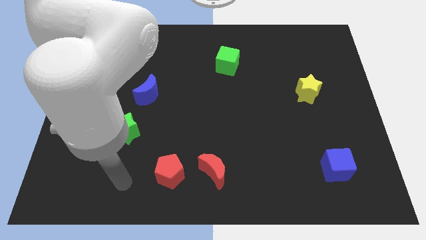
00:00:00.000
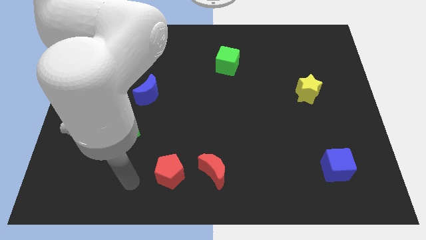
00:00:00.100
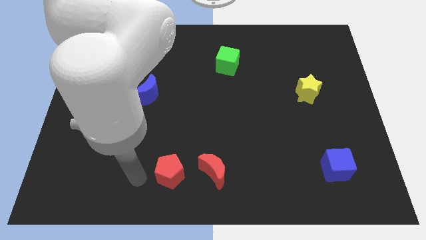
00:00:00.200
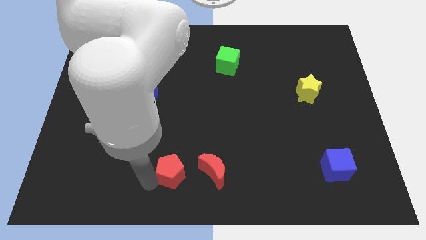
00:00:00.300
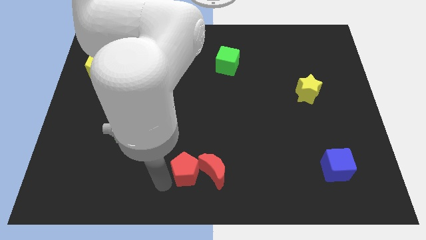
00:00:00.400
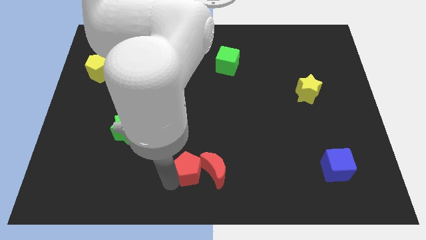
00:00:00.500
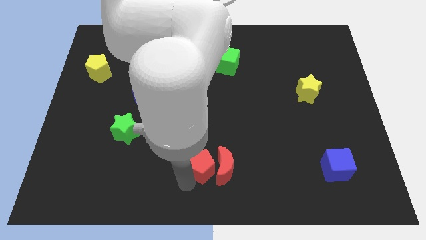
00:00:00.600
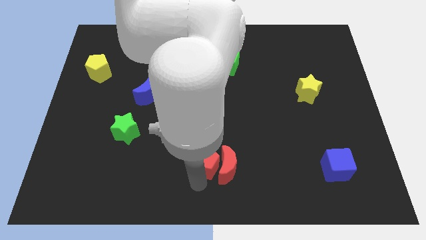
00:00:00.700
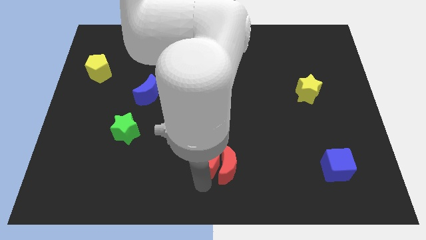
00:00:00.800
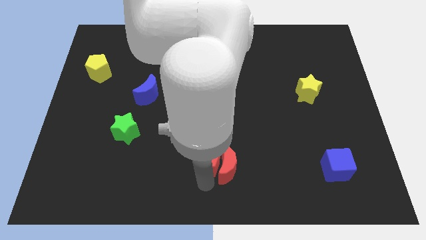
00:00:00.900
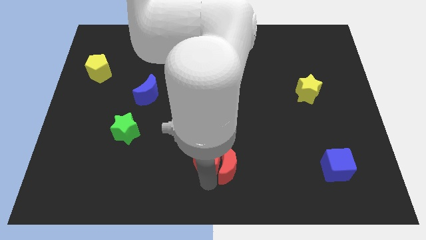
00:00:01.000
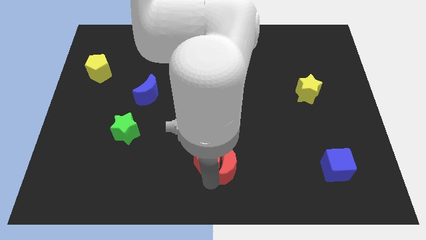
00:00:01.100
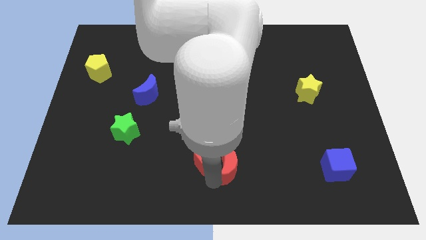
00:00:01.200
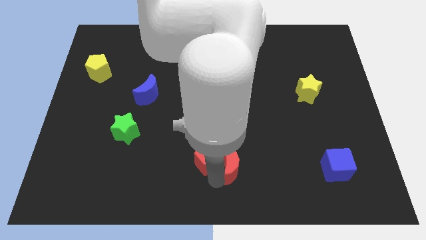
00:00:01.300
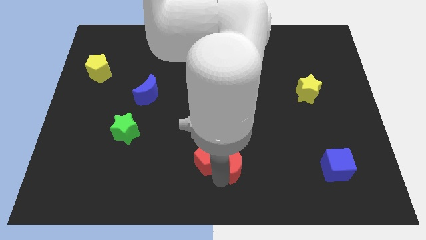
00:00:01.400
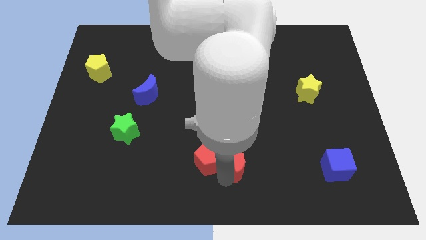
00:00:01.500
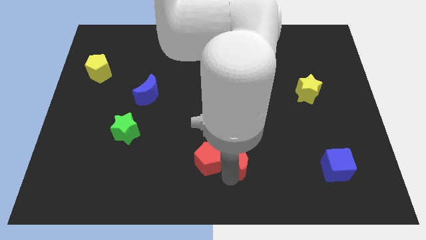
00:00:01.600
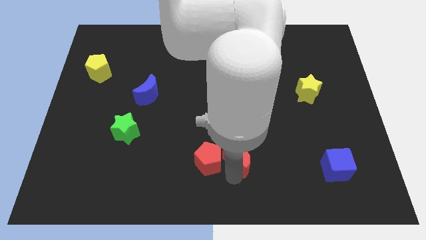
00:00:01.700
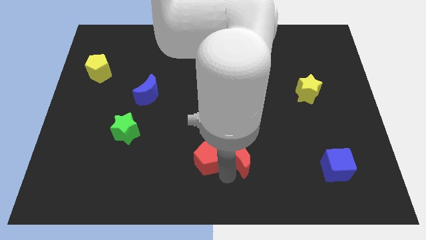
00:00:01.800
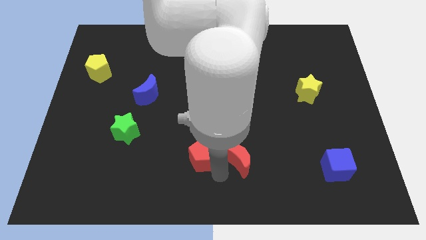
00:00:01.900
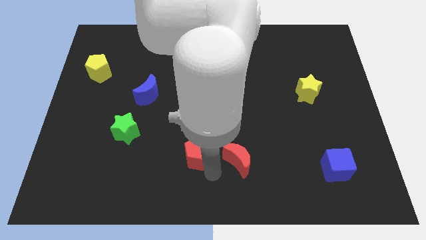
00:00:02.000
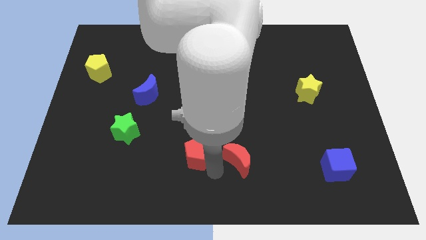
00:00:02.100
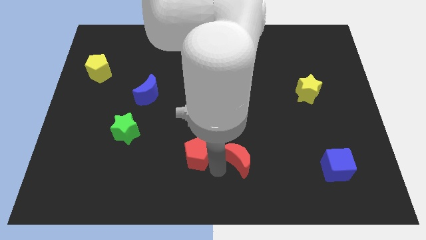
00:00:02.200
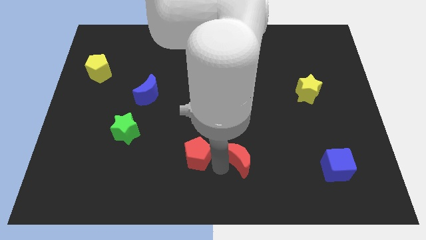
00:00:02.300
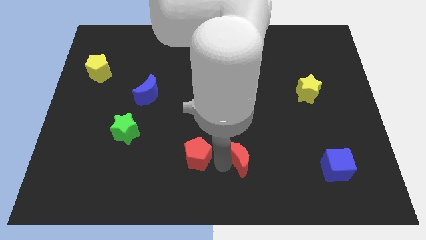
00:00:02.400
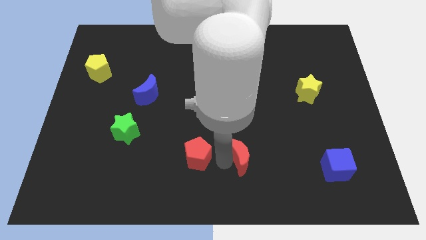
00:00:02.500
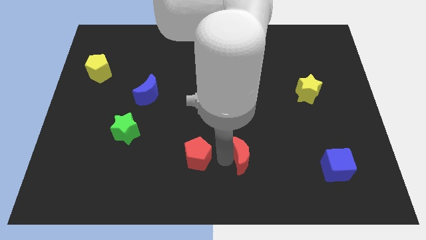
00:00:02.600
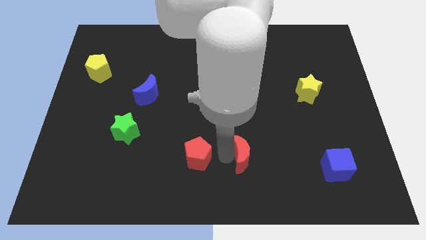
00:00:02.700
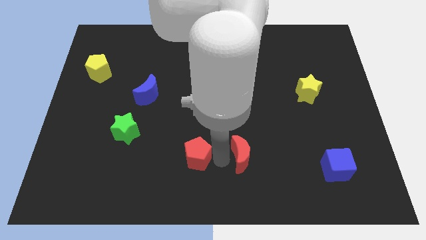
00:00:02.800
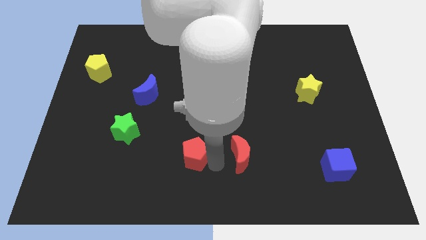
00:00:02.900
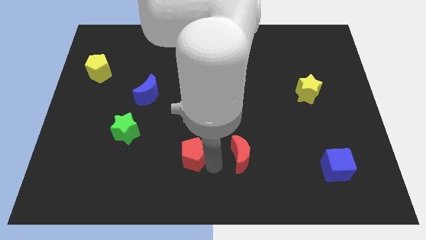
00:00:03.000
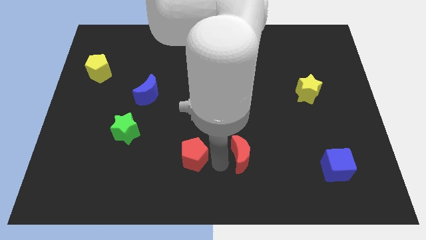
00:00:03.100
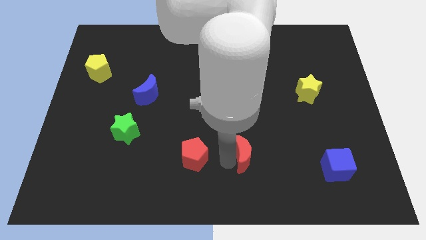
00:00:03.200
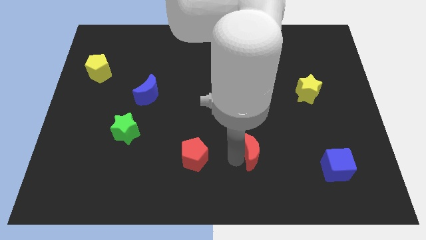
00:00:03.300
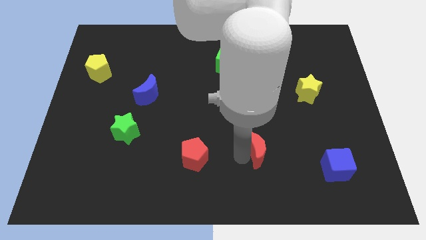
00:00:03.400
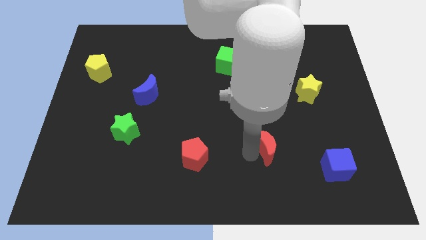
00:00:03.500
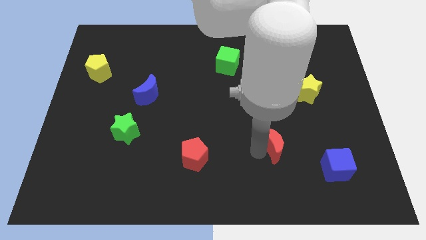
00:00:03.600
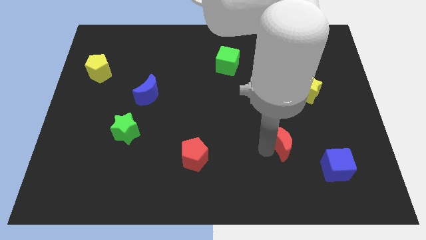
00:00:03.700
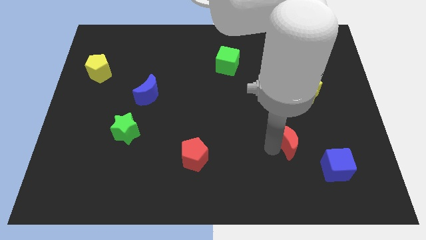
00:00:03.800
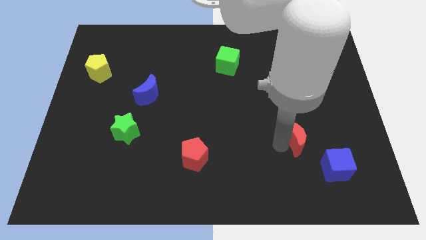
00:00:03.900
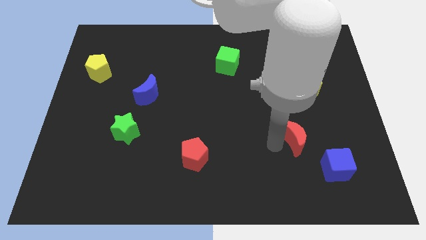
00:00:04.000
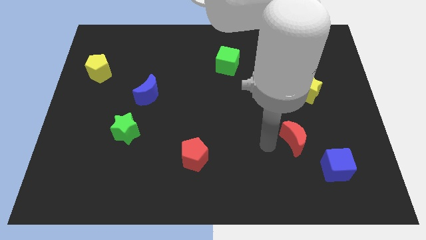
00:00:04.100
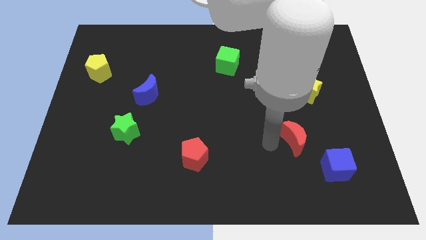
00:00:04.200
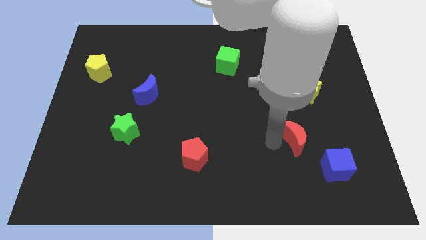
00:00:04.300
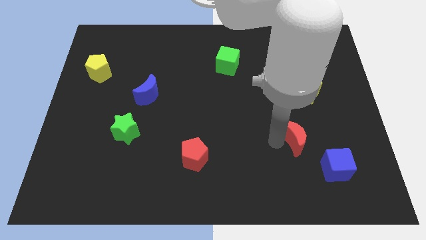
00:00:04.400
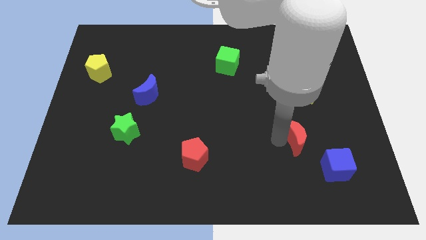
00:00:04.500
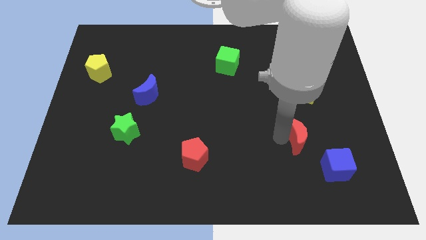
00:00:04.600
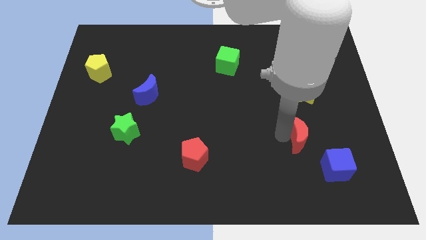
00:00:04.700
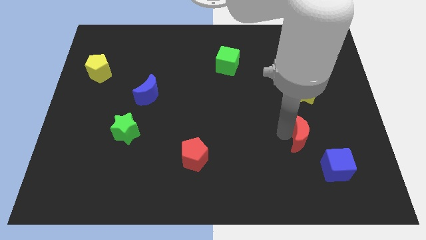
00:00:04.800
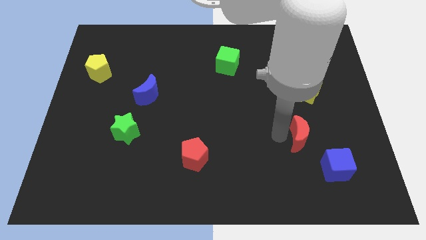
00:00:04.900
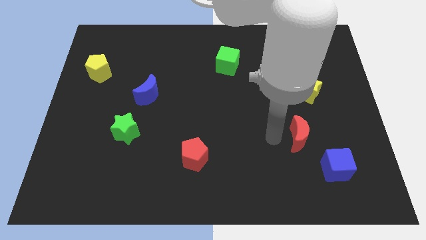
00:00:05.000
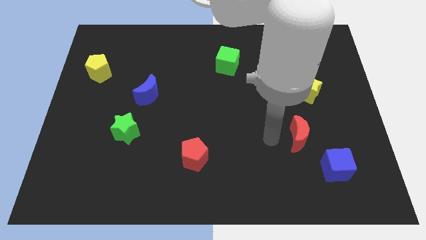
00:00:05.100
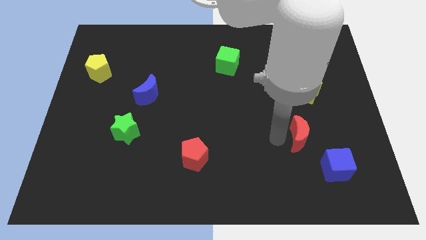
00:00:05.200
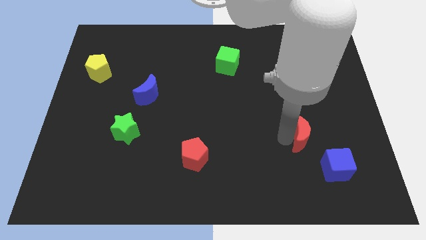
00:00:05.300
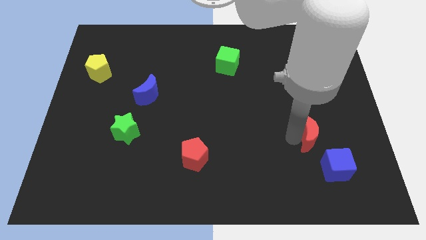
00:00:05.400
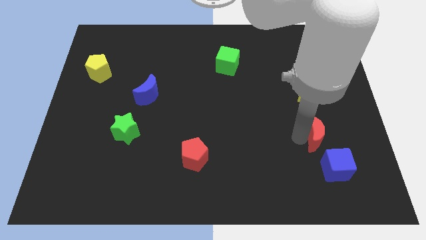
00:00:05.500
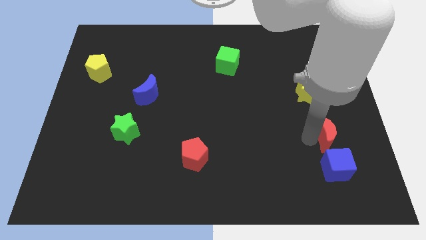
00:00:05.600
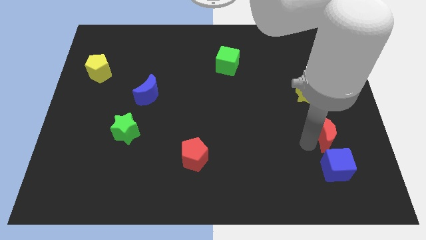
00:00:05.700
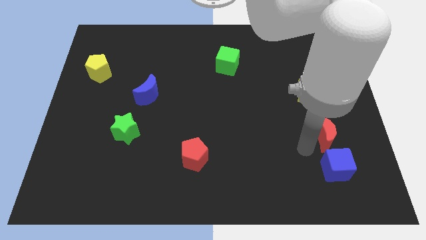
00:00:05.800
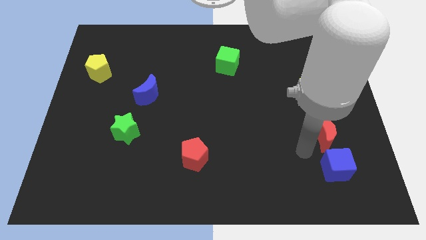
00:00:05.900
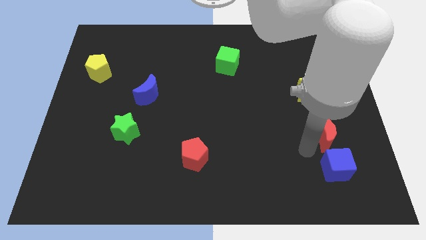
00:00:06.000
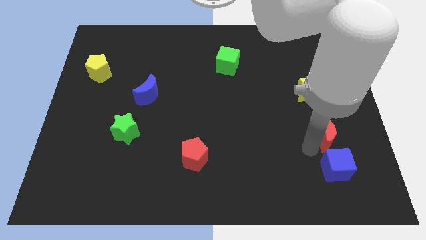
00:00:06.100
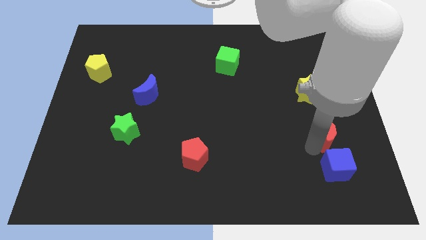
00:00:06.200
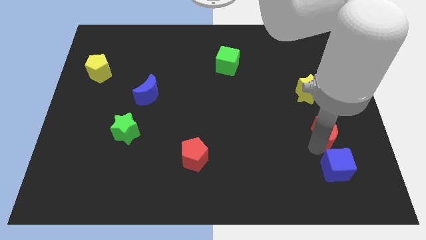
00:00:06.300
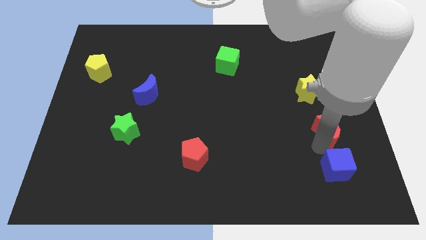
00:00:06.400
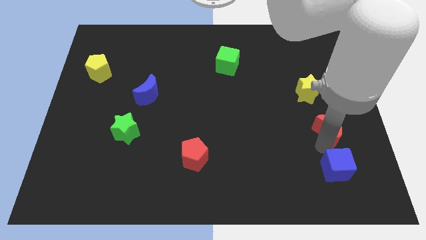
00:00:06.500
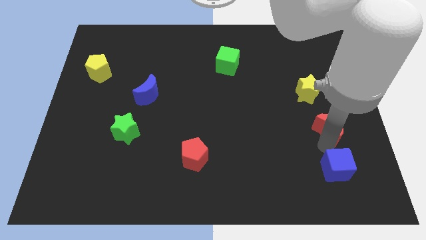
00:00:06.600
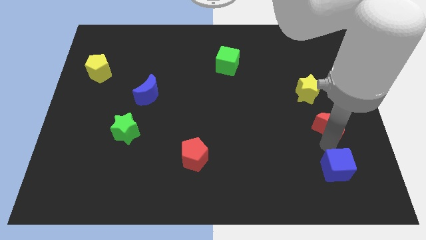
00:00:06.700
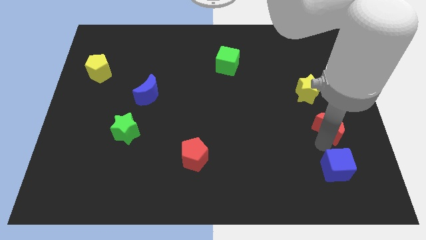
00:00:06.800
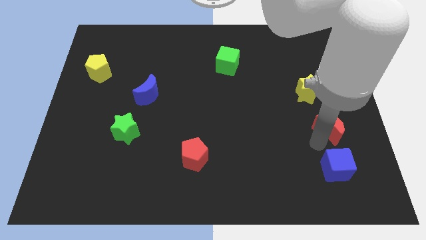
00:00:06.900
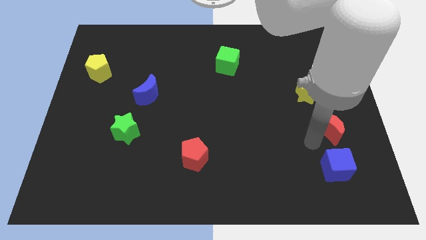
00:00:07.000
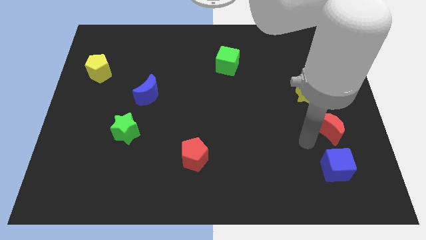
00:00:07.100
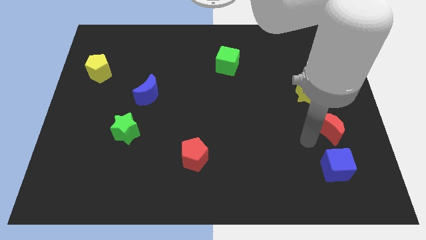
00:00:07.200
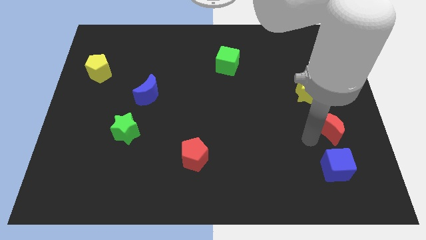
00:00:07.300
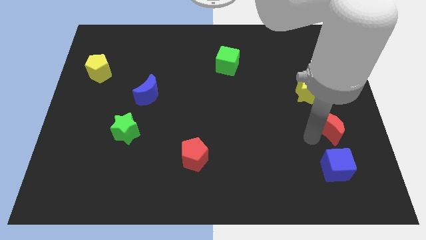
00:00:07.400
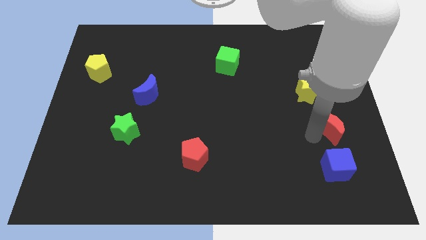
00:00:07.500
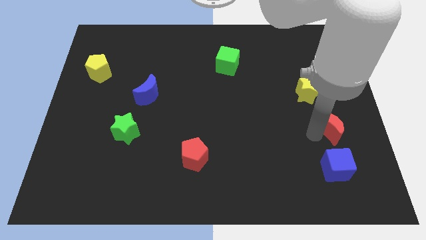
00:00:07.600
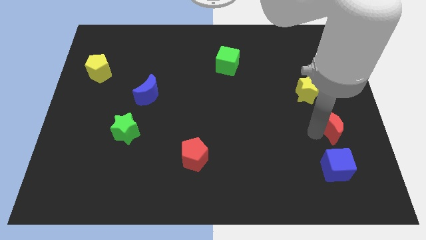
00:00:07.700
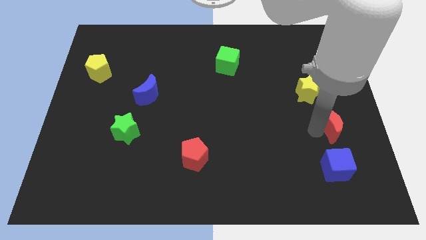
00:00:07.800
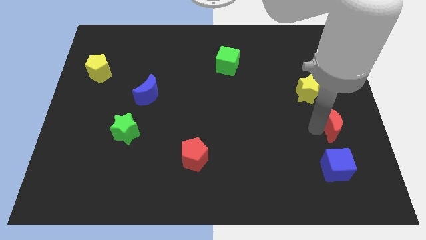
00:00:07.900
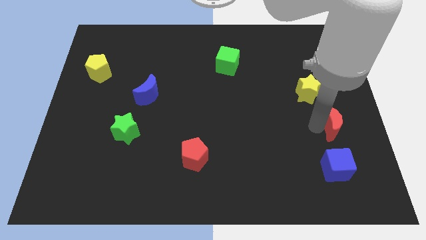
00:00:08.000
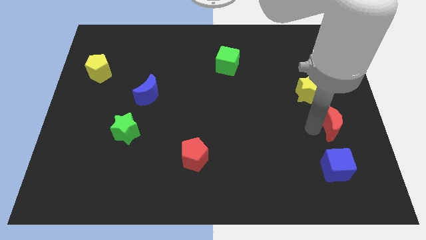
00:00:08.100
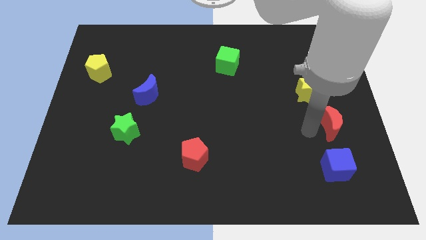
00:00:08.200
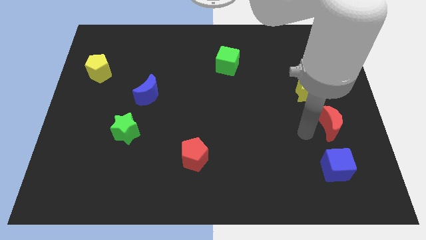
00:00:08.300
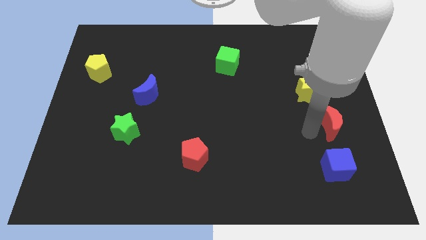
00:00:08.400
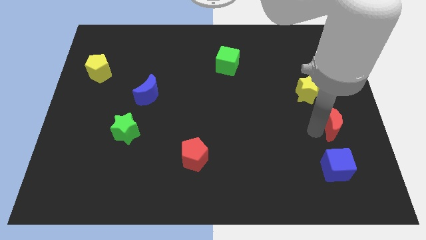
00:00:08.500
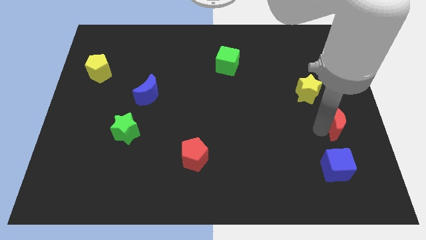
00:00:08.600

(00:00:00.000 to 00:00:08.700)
put the red moon to the right side
